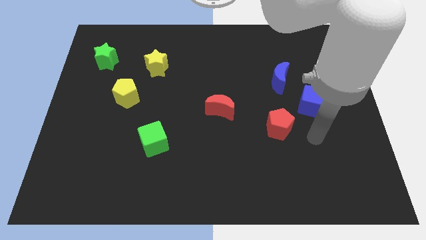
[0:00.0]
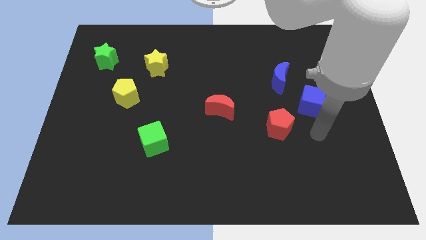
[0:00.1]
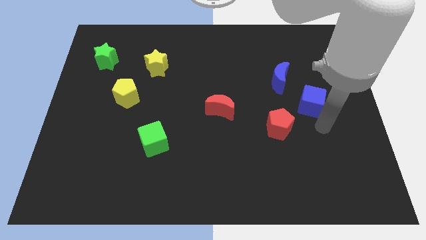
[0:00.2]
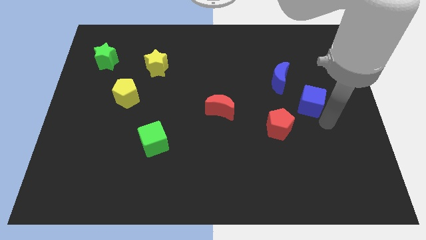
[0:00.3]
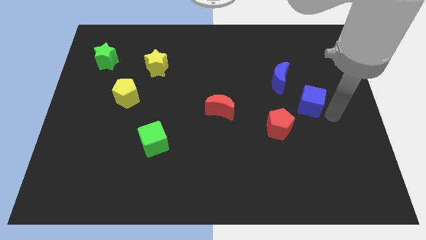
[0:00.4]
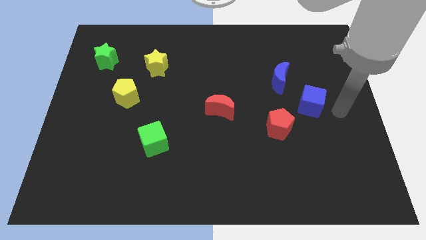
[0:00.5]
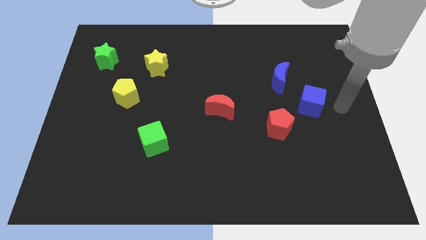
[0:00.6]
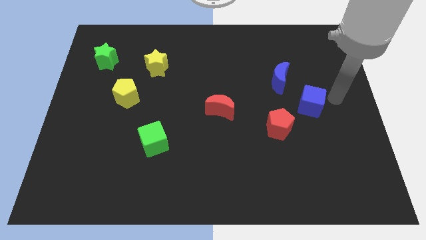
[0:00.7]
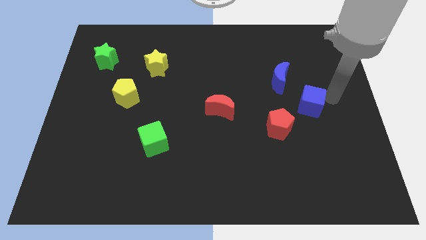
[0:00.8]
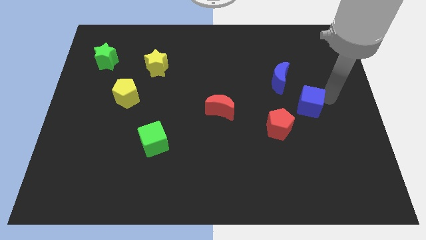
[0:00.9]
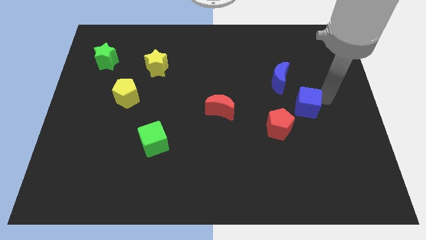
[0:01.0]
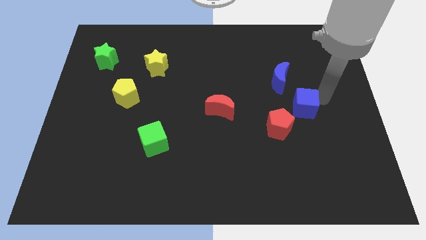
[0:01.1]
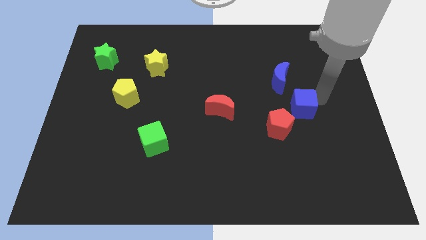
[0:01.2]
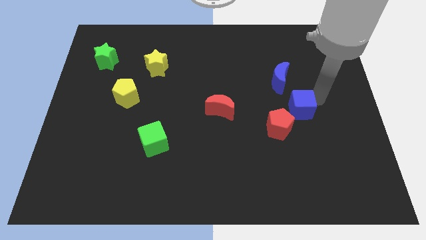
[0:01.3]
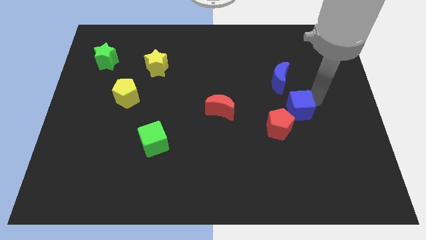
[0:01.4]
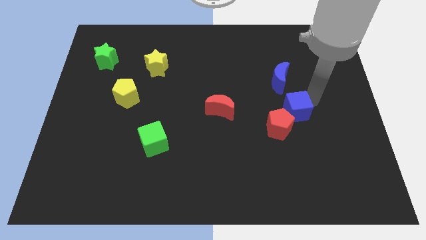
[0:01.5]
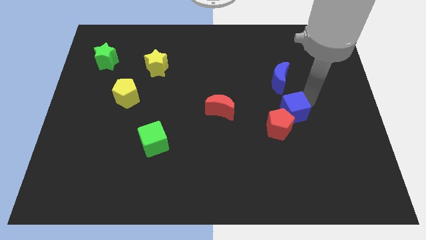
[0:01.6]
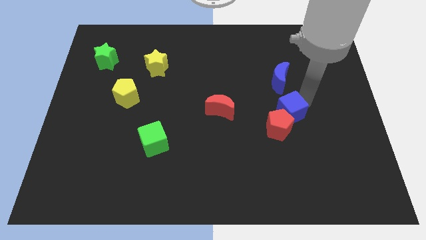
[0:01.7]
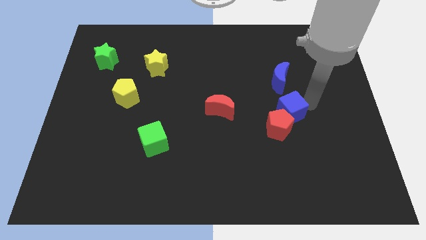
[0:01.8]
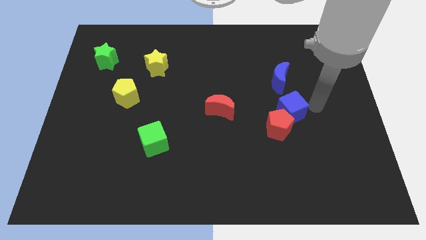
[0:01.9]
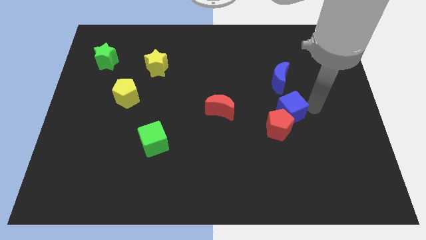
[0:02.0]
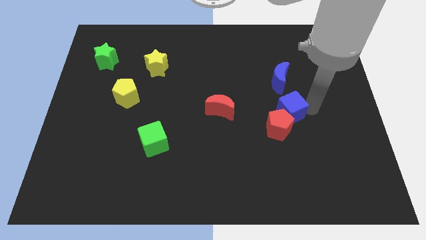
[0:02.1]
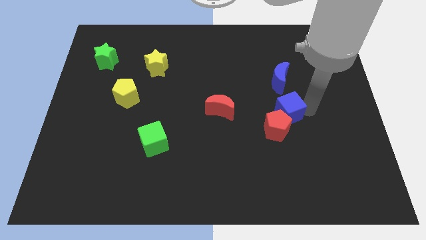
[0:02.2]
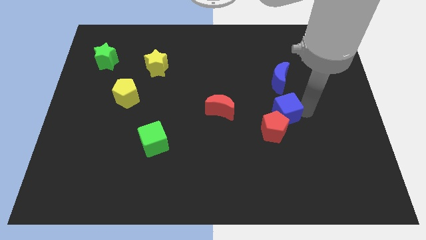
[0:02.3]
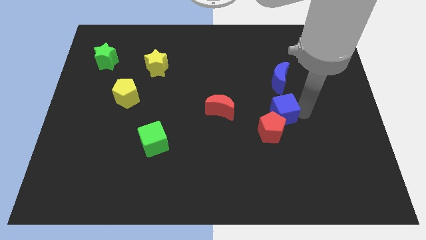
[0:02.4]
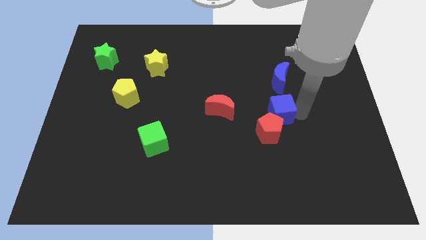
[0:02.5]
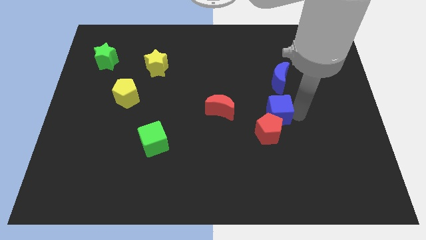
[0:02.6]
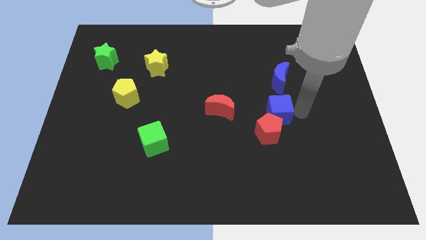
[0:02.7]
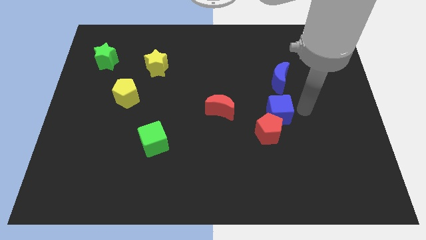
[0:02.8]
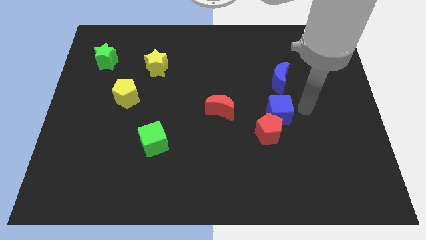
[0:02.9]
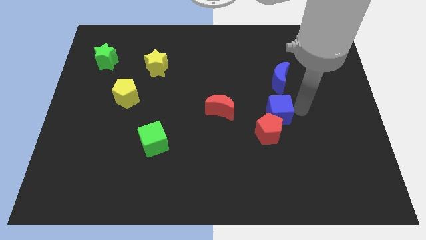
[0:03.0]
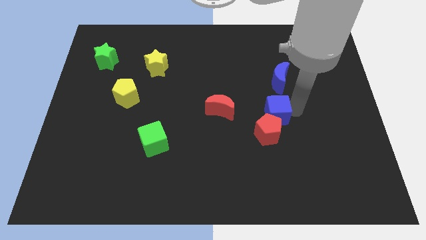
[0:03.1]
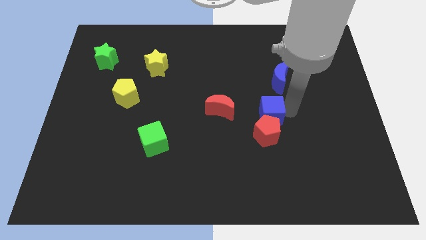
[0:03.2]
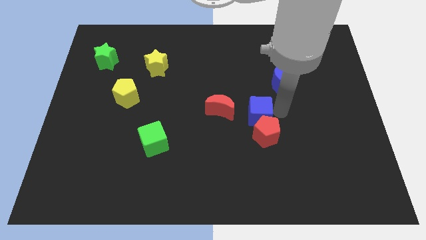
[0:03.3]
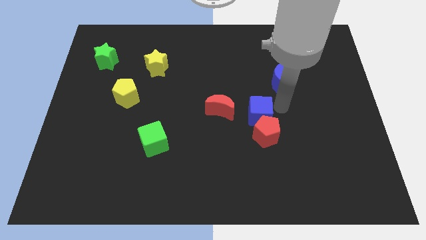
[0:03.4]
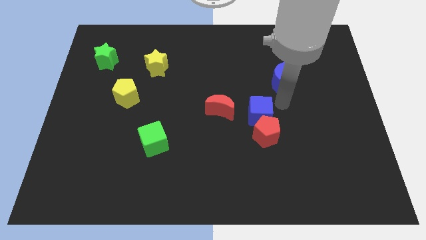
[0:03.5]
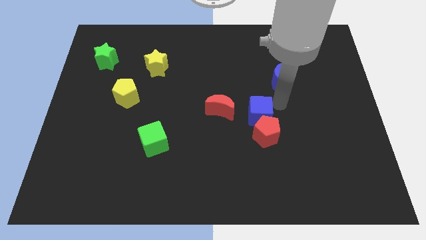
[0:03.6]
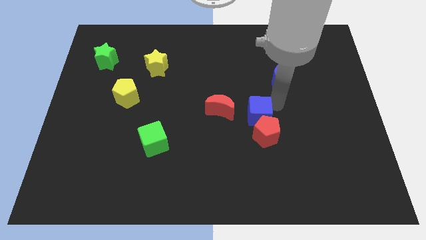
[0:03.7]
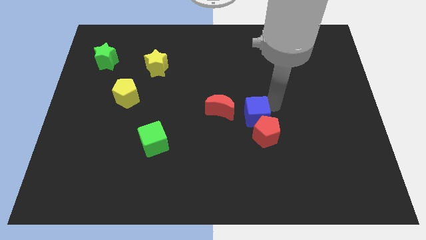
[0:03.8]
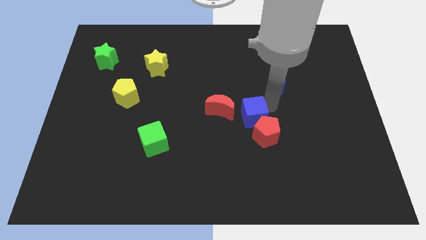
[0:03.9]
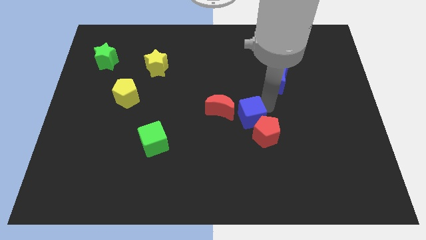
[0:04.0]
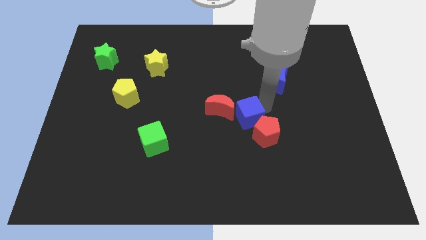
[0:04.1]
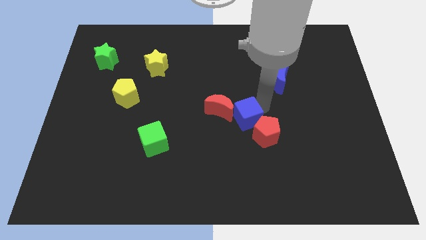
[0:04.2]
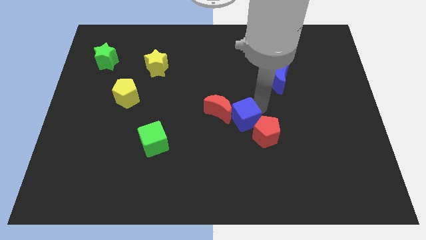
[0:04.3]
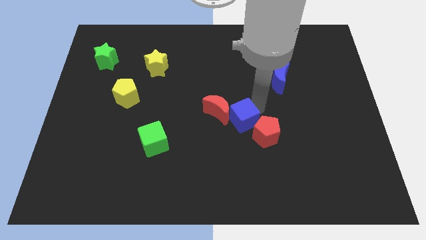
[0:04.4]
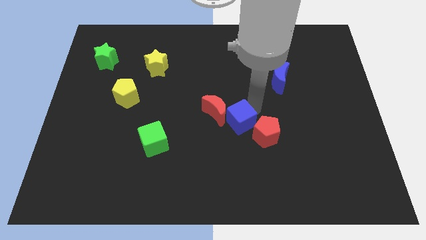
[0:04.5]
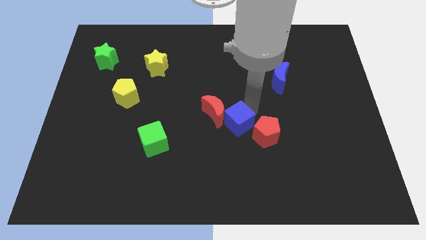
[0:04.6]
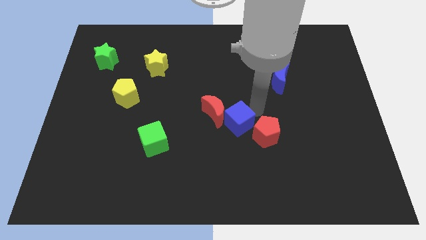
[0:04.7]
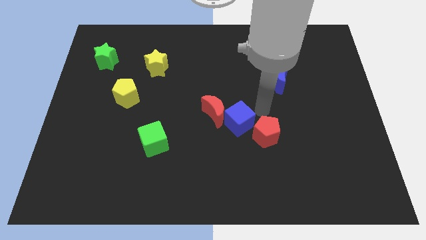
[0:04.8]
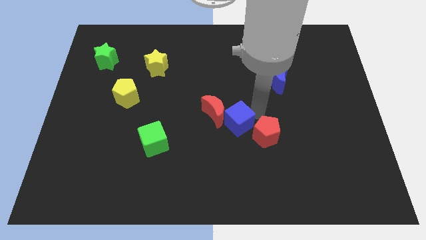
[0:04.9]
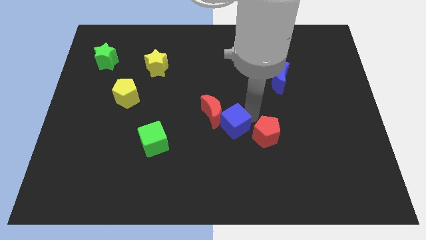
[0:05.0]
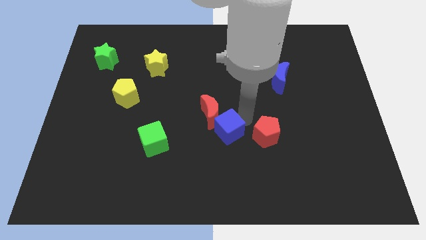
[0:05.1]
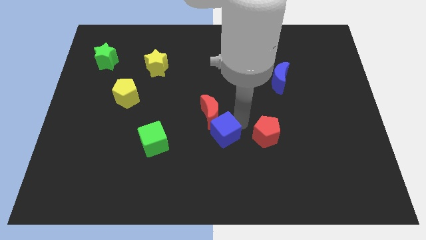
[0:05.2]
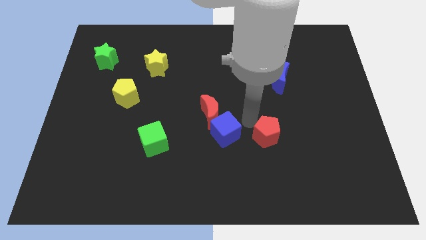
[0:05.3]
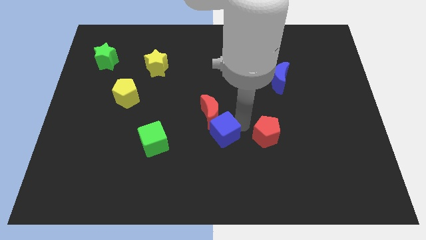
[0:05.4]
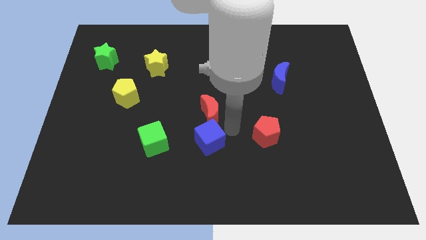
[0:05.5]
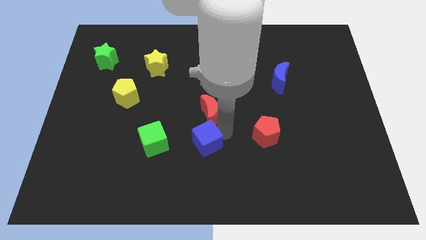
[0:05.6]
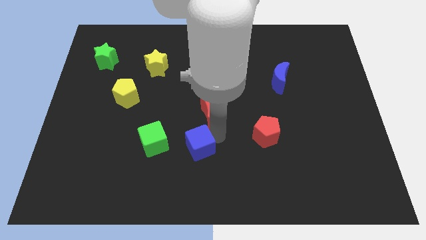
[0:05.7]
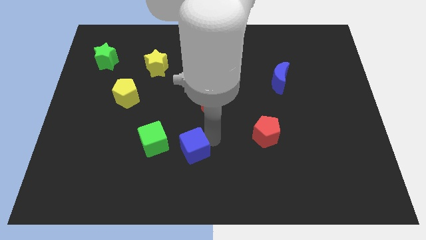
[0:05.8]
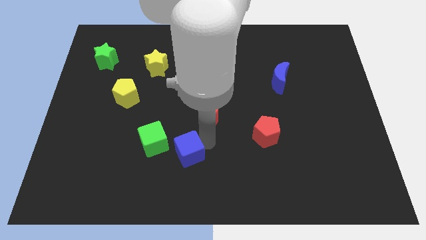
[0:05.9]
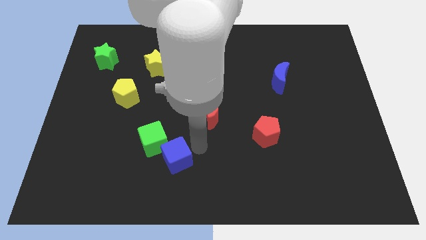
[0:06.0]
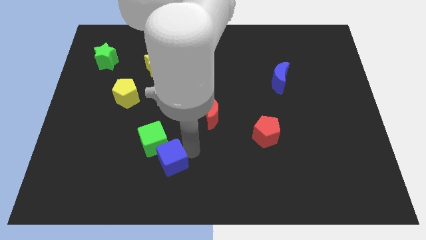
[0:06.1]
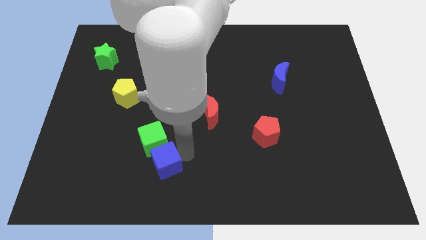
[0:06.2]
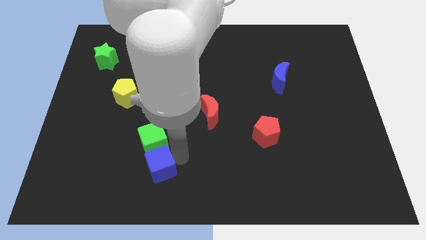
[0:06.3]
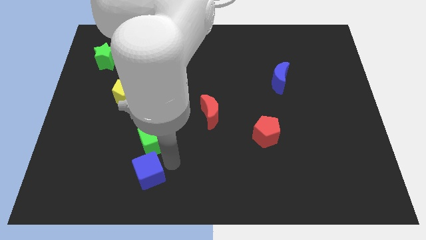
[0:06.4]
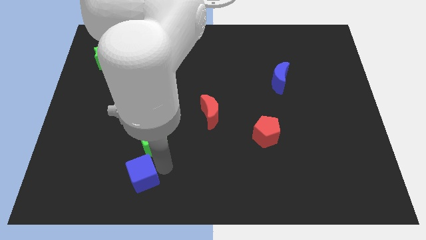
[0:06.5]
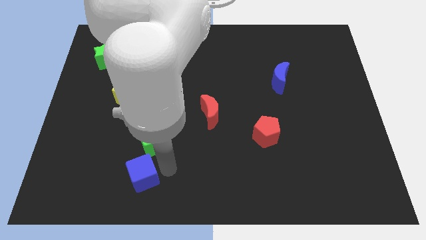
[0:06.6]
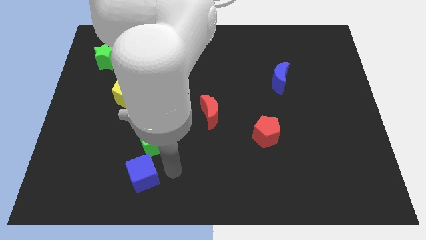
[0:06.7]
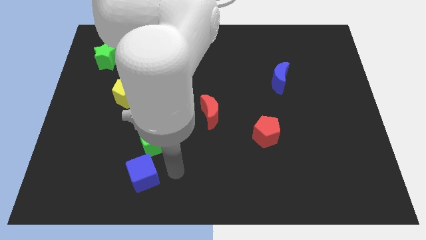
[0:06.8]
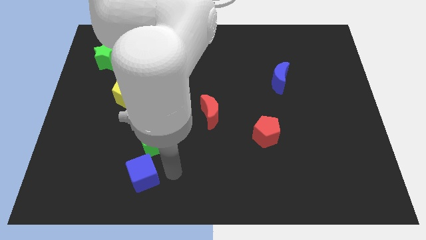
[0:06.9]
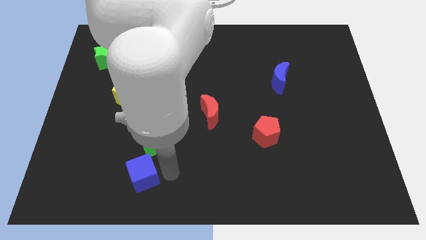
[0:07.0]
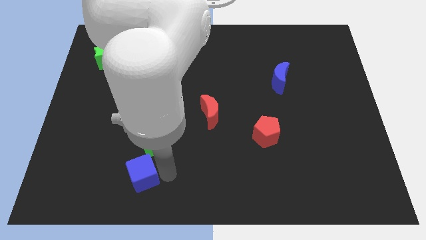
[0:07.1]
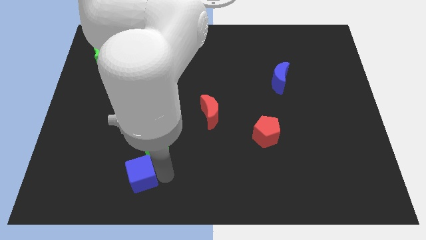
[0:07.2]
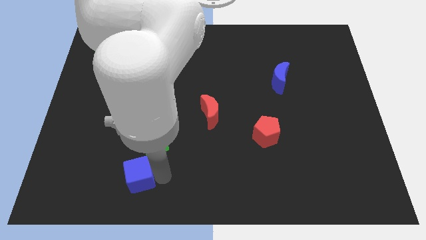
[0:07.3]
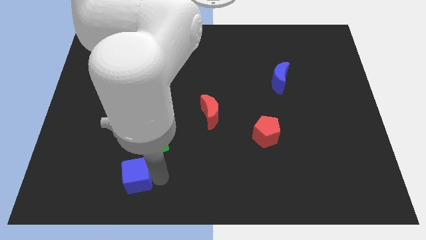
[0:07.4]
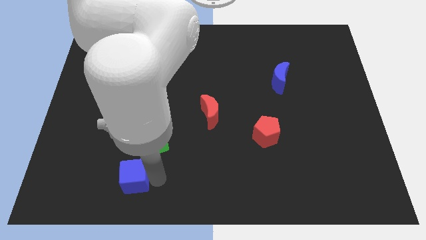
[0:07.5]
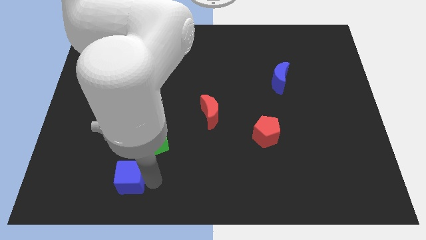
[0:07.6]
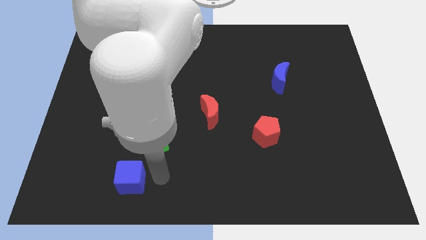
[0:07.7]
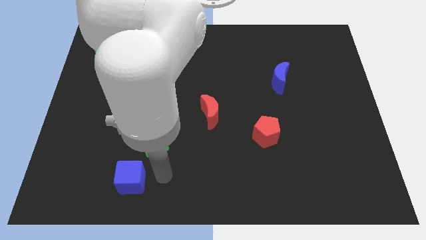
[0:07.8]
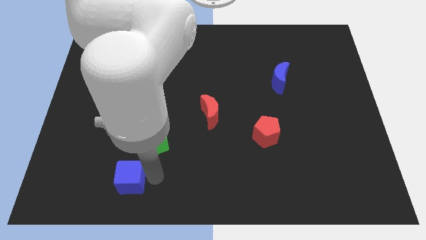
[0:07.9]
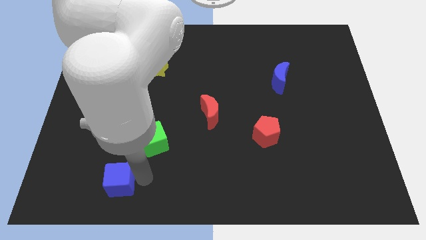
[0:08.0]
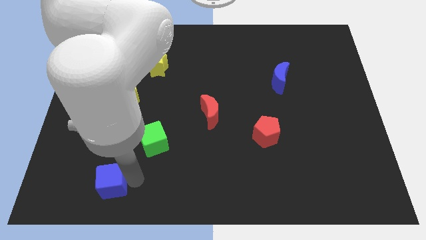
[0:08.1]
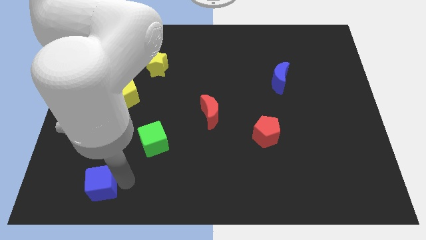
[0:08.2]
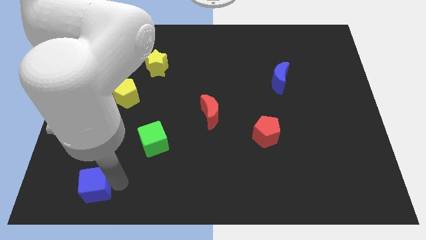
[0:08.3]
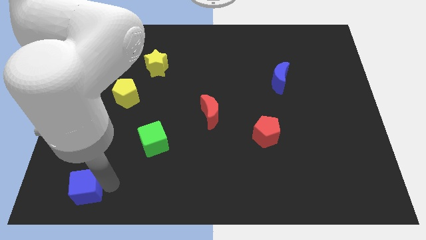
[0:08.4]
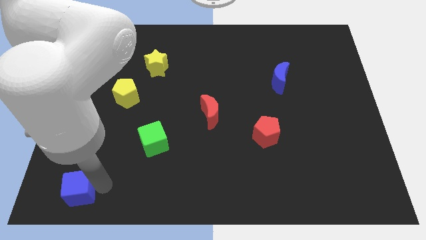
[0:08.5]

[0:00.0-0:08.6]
put the blue cube to the bottom left corner
